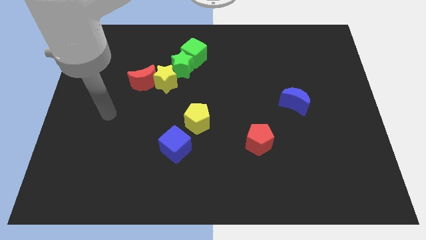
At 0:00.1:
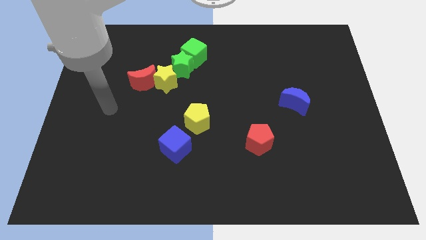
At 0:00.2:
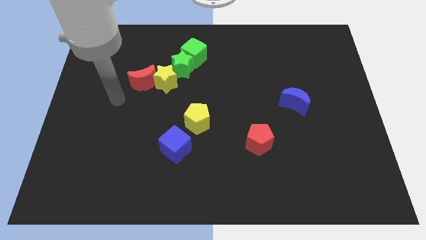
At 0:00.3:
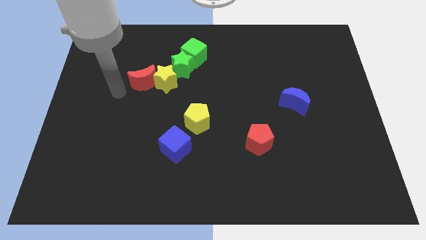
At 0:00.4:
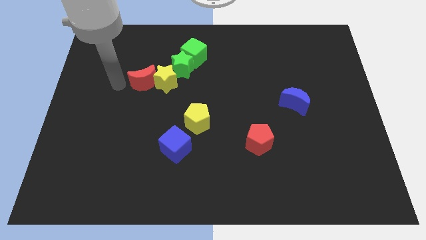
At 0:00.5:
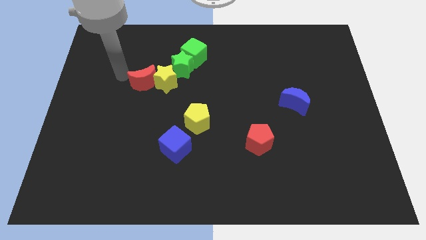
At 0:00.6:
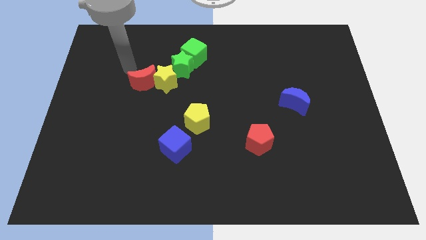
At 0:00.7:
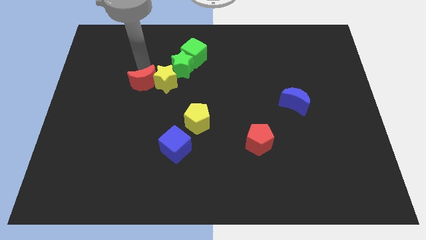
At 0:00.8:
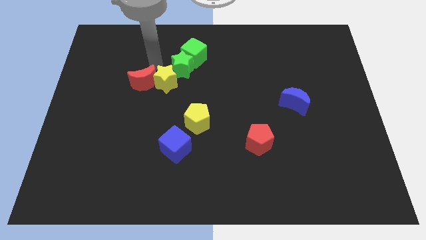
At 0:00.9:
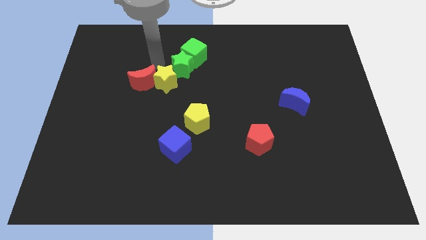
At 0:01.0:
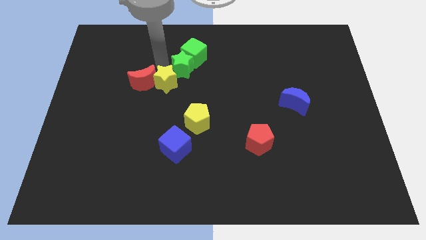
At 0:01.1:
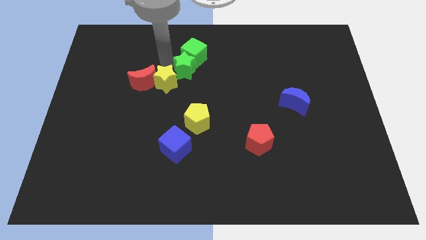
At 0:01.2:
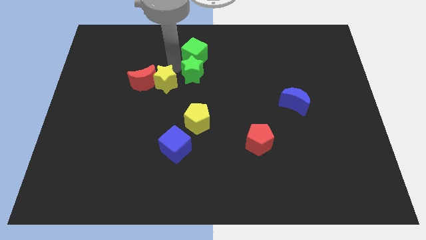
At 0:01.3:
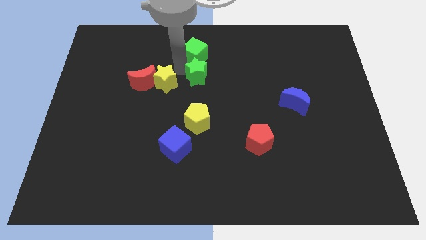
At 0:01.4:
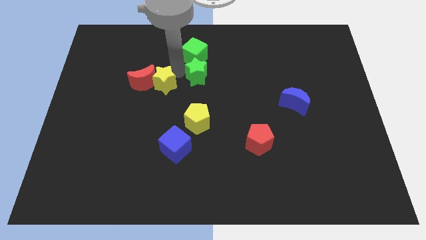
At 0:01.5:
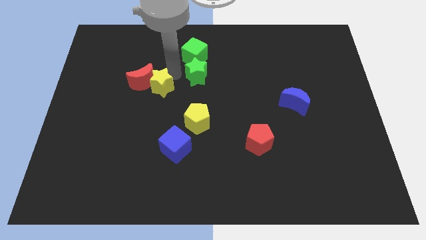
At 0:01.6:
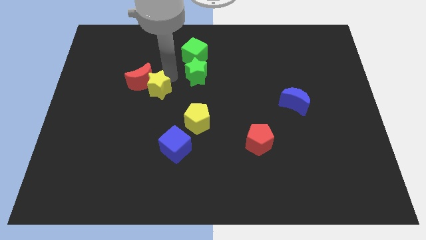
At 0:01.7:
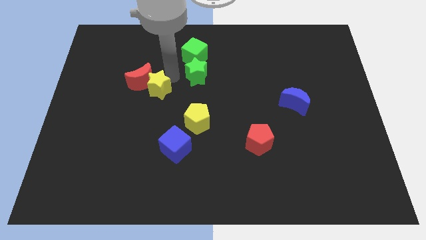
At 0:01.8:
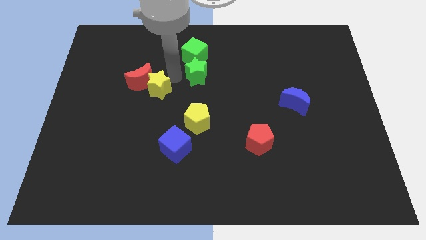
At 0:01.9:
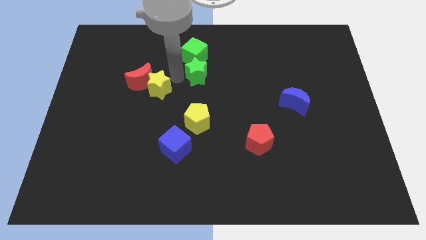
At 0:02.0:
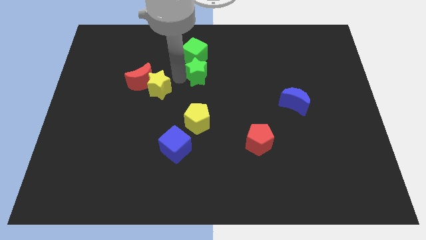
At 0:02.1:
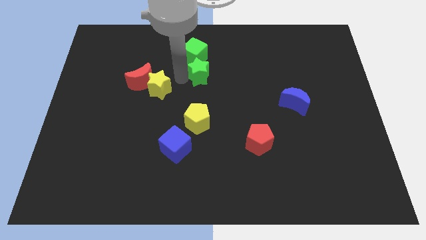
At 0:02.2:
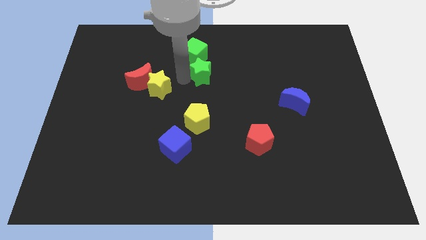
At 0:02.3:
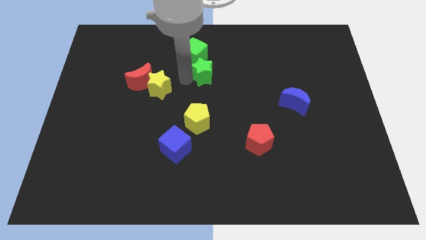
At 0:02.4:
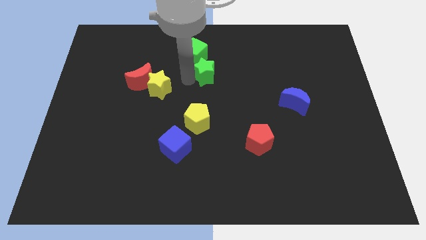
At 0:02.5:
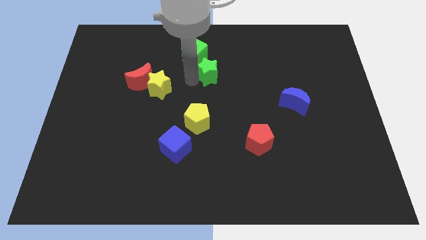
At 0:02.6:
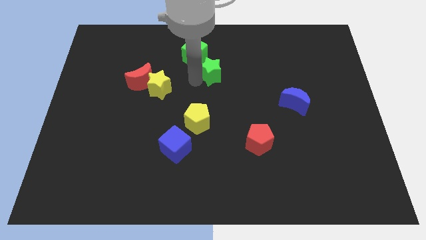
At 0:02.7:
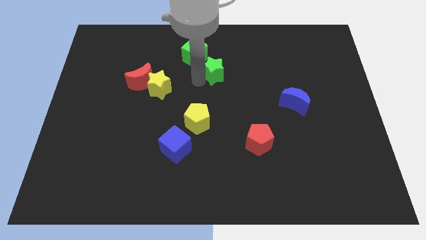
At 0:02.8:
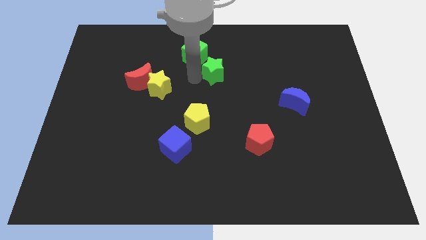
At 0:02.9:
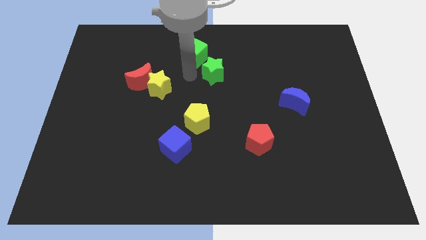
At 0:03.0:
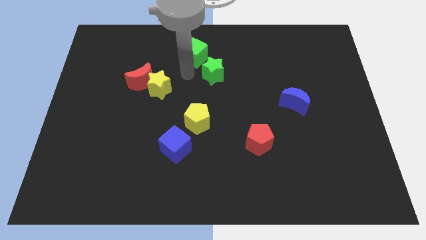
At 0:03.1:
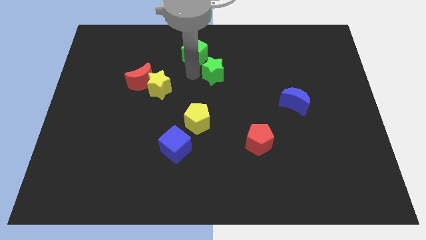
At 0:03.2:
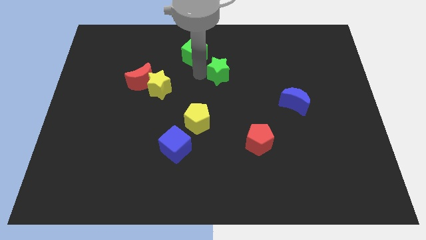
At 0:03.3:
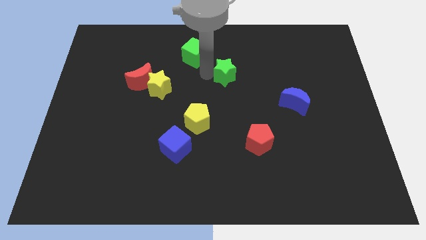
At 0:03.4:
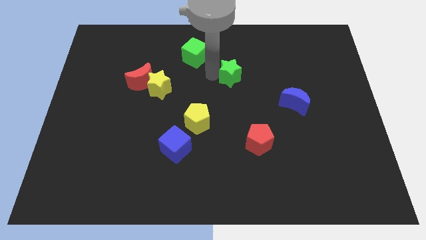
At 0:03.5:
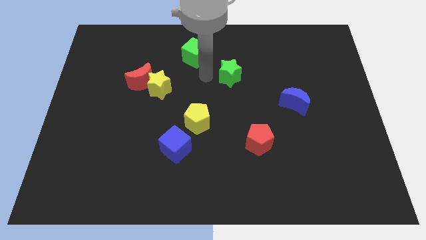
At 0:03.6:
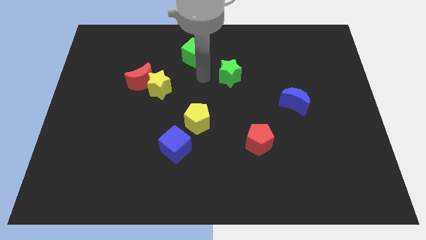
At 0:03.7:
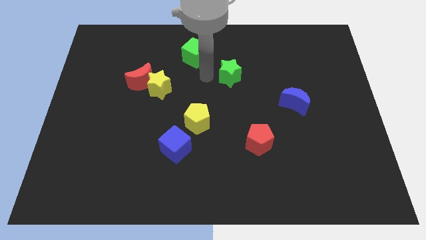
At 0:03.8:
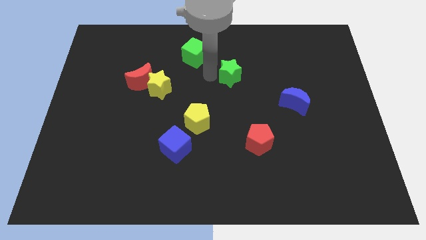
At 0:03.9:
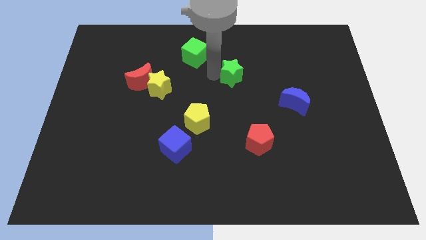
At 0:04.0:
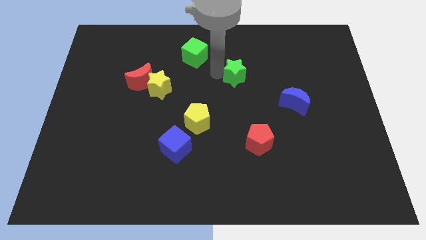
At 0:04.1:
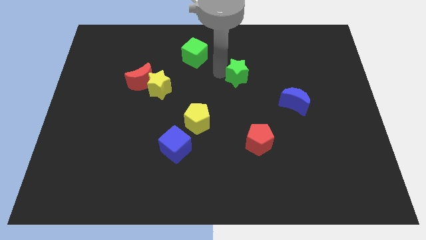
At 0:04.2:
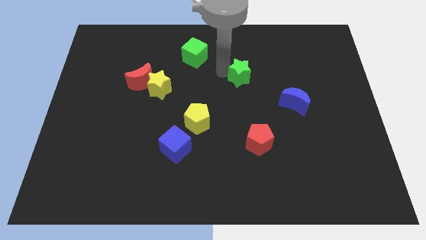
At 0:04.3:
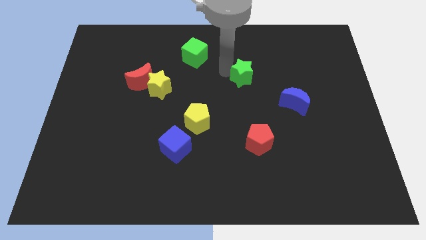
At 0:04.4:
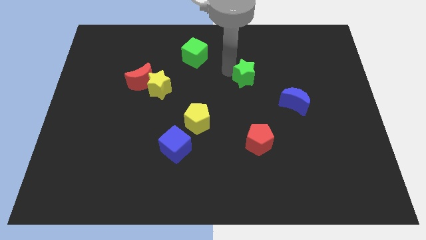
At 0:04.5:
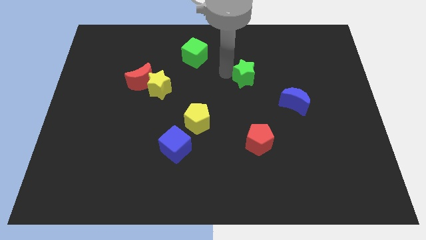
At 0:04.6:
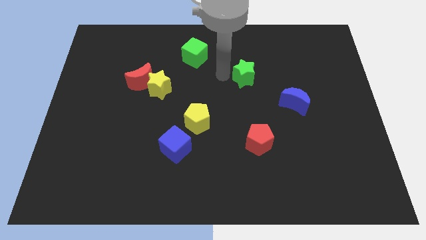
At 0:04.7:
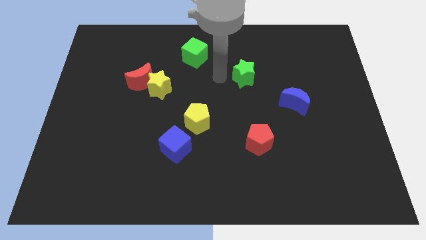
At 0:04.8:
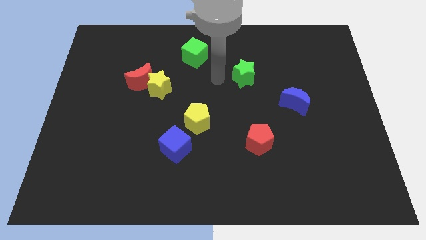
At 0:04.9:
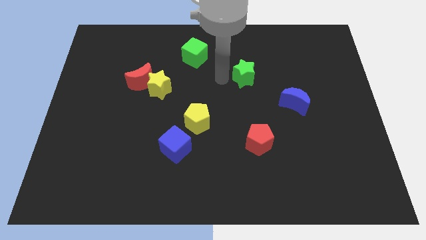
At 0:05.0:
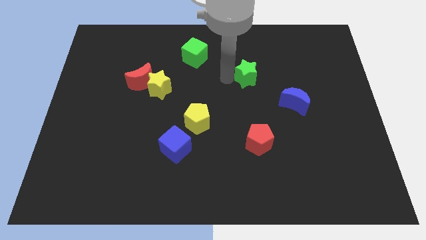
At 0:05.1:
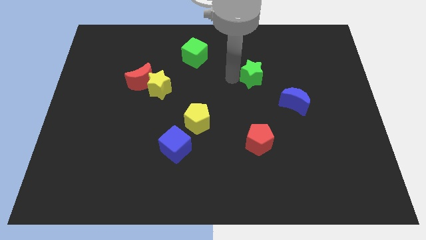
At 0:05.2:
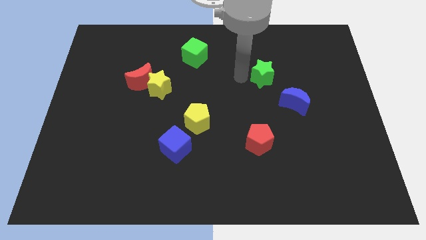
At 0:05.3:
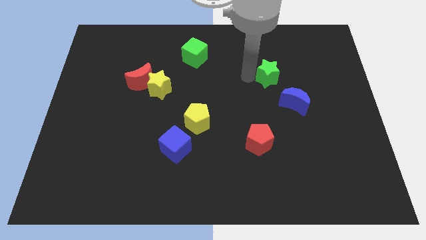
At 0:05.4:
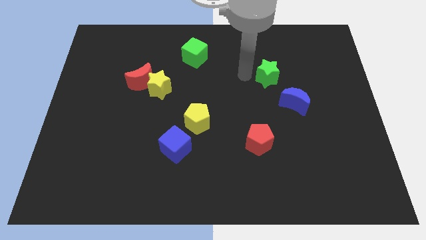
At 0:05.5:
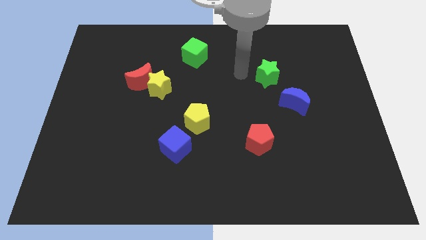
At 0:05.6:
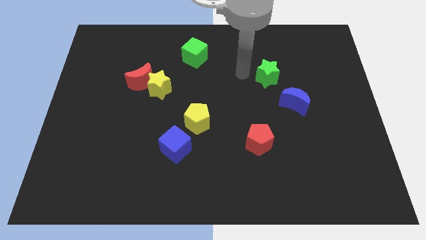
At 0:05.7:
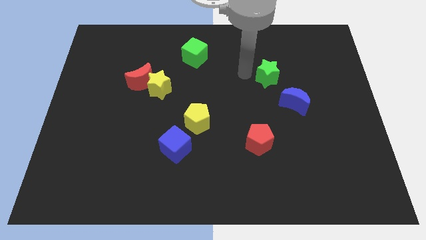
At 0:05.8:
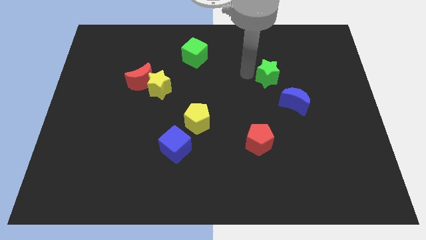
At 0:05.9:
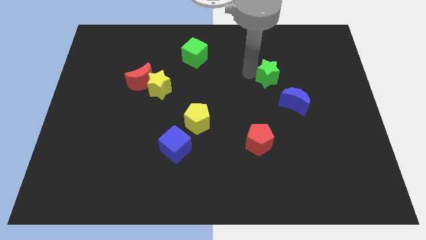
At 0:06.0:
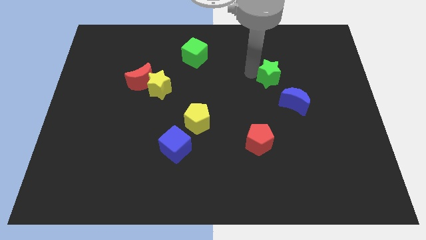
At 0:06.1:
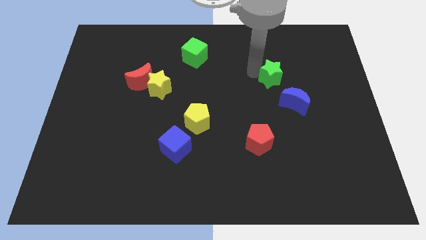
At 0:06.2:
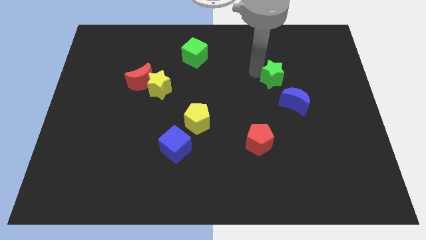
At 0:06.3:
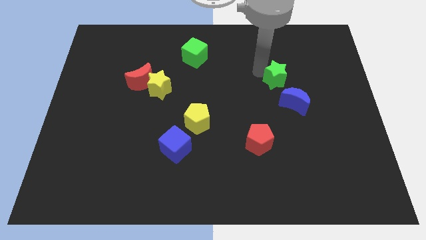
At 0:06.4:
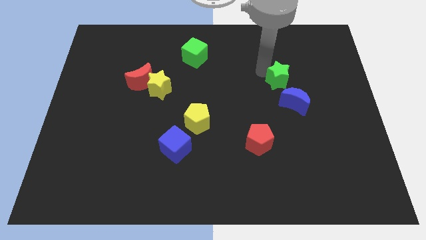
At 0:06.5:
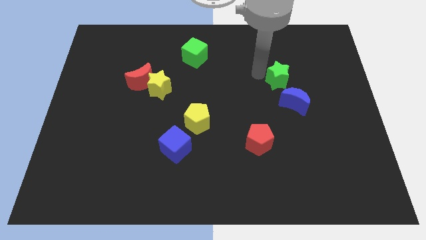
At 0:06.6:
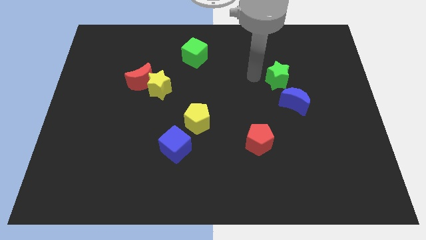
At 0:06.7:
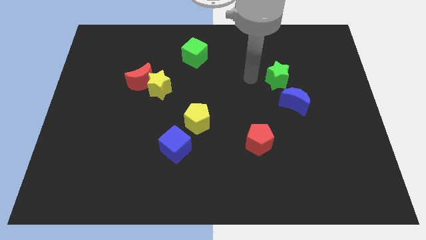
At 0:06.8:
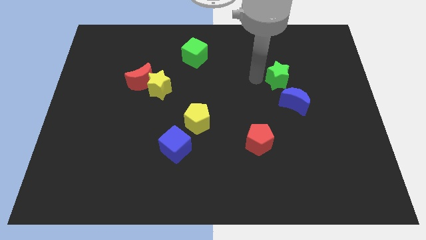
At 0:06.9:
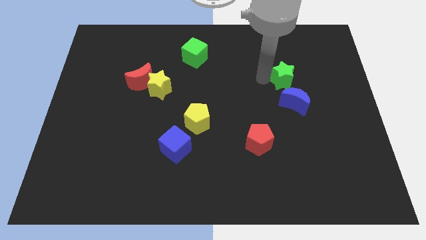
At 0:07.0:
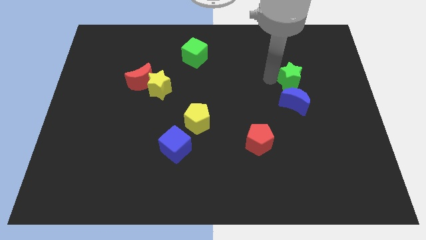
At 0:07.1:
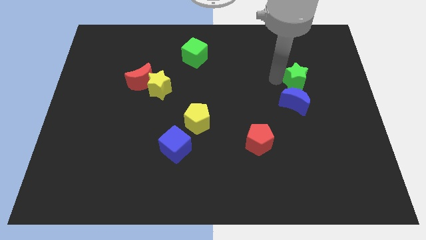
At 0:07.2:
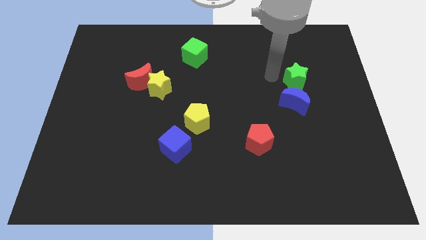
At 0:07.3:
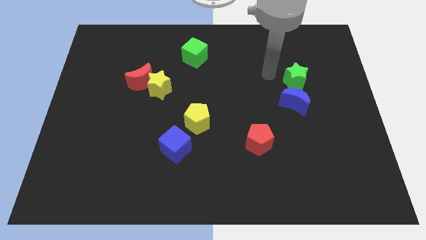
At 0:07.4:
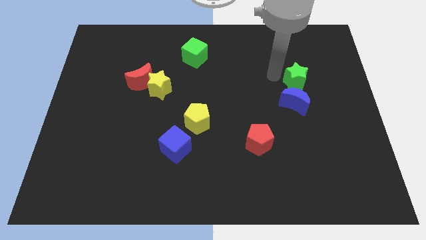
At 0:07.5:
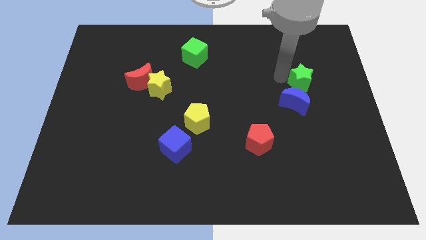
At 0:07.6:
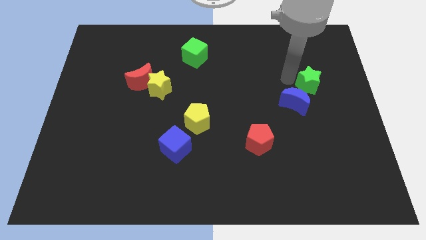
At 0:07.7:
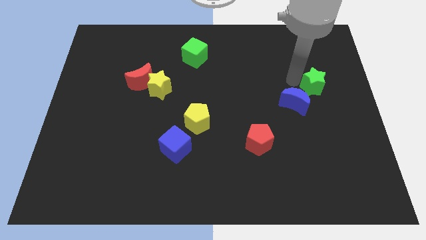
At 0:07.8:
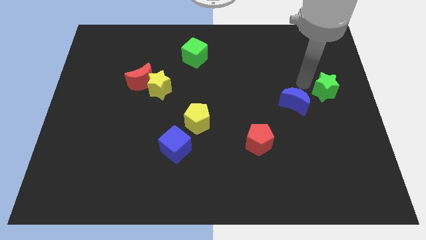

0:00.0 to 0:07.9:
push the green star to the center right

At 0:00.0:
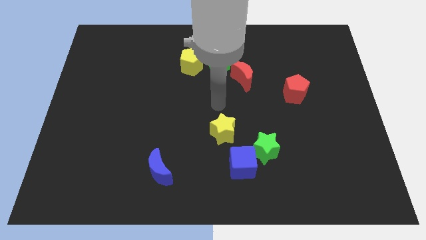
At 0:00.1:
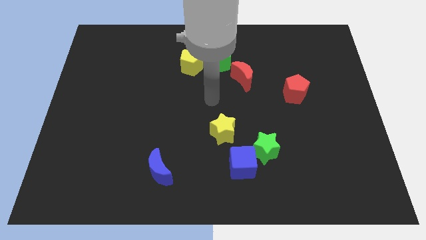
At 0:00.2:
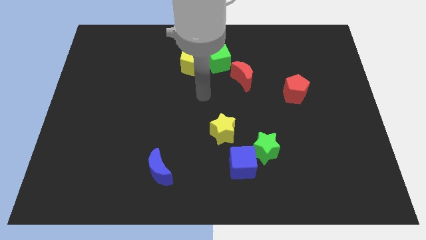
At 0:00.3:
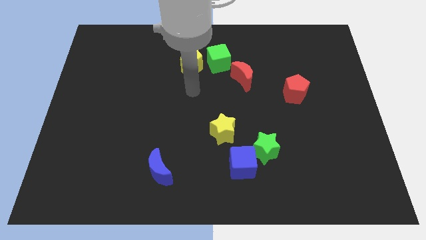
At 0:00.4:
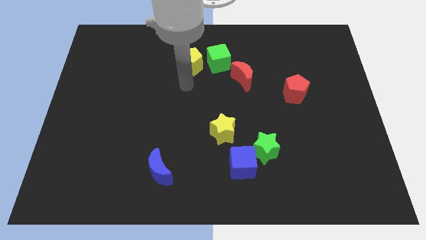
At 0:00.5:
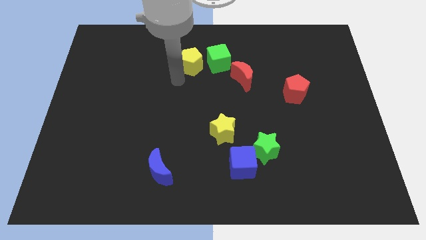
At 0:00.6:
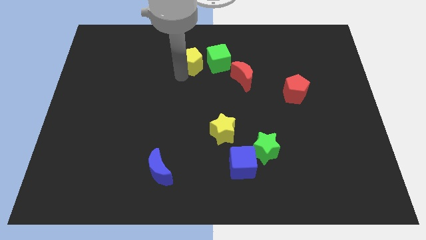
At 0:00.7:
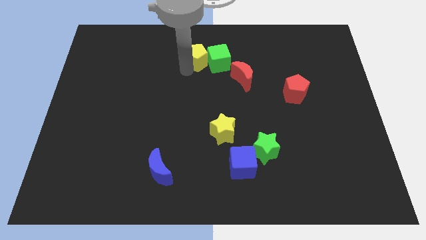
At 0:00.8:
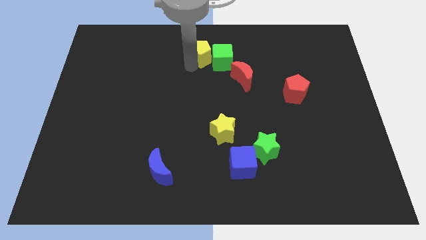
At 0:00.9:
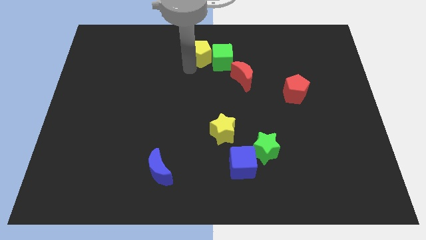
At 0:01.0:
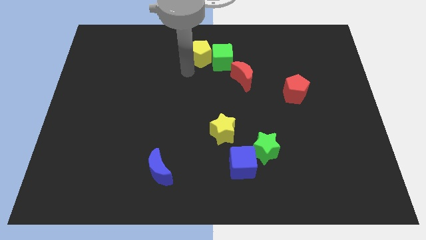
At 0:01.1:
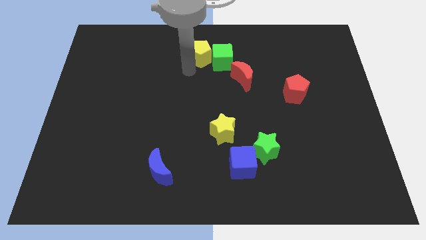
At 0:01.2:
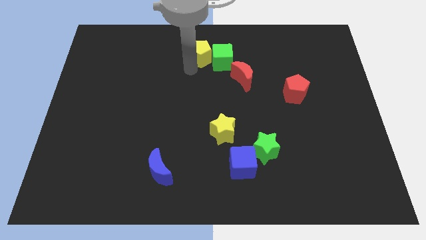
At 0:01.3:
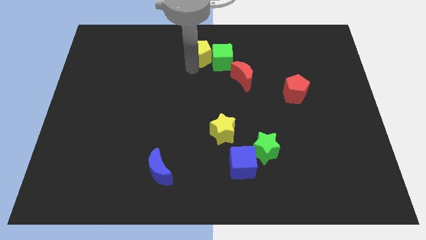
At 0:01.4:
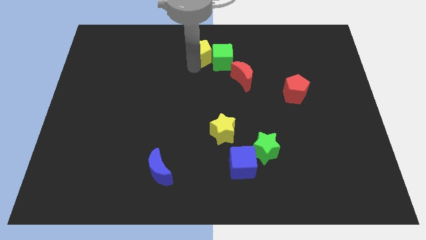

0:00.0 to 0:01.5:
slide the yellow pentagon to the top
